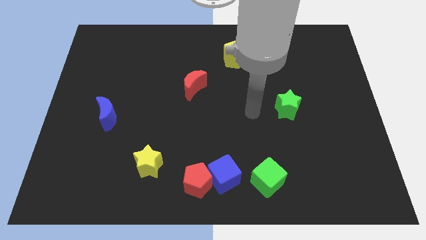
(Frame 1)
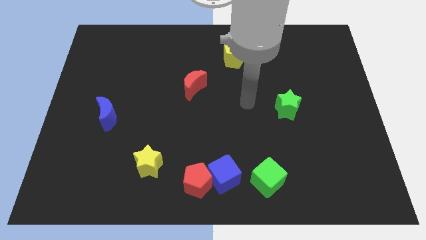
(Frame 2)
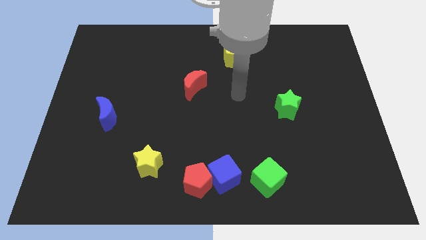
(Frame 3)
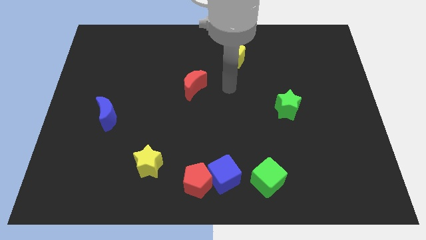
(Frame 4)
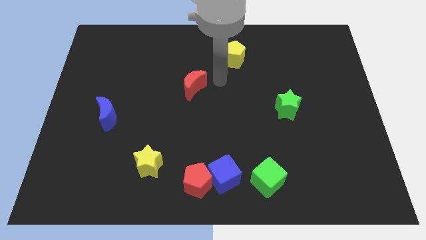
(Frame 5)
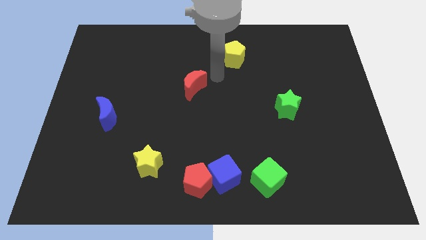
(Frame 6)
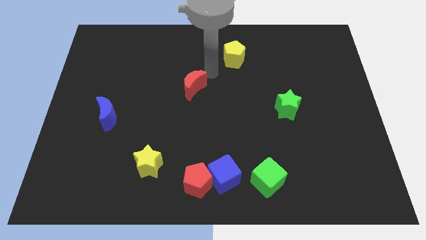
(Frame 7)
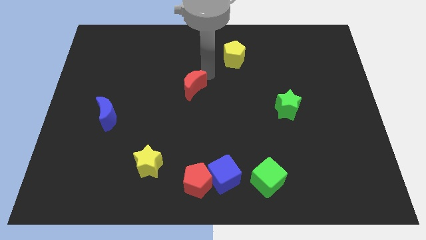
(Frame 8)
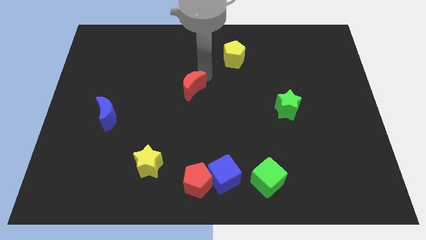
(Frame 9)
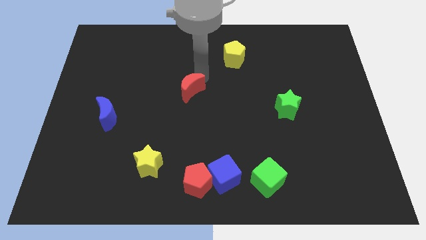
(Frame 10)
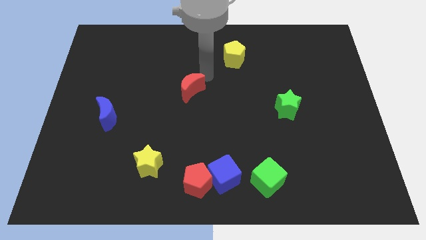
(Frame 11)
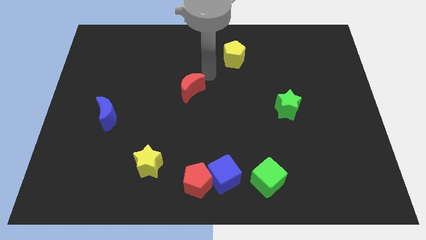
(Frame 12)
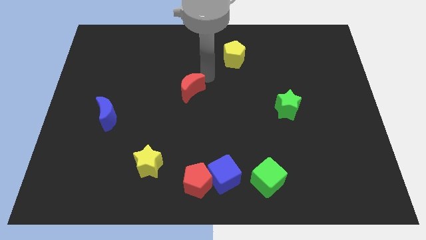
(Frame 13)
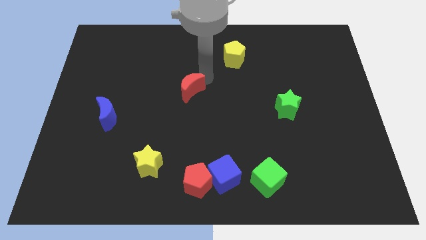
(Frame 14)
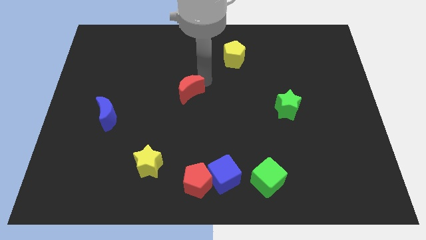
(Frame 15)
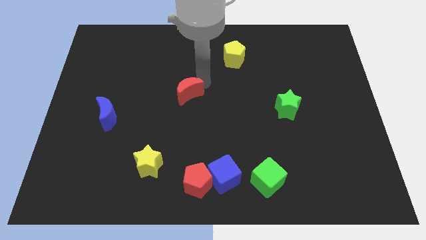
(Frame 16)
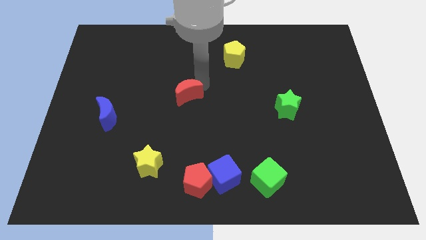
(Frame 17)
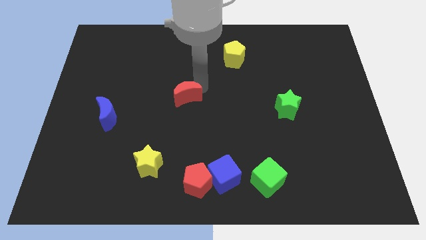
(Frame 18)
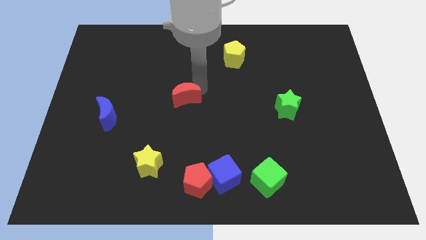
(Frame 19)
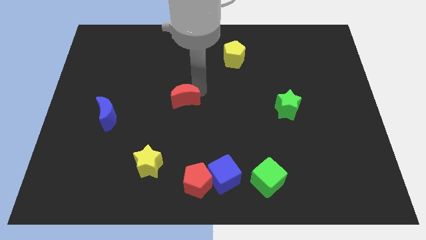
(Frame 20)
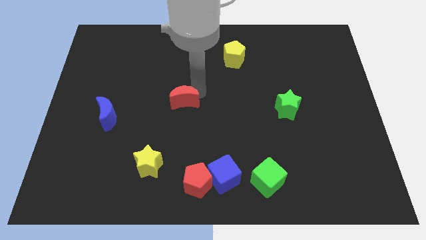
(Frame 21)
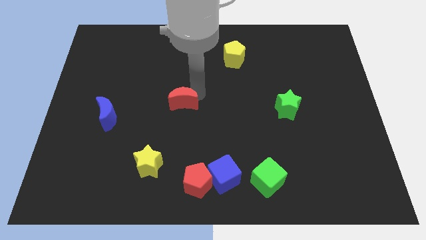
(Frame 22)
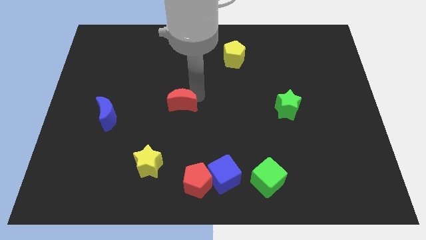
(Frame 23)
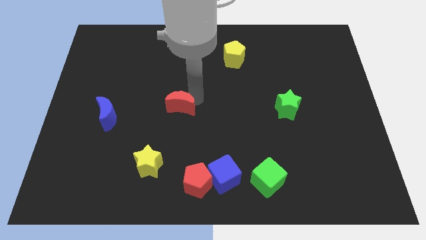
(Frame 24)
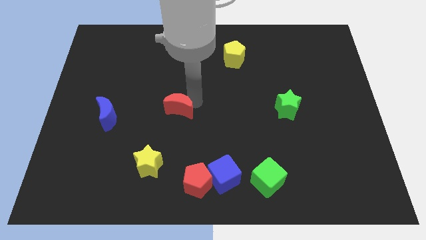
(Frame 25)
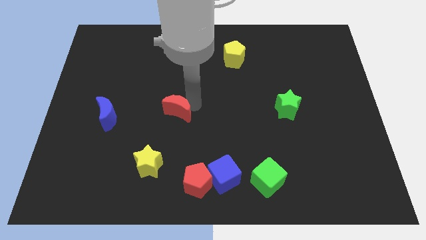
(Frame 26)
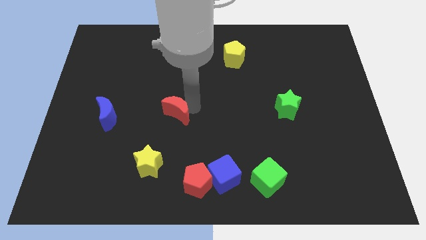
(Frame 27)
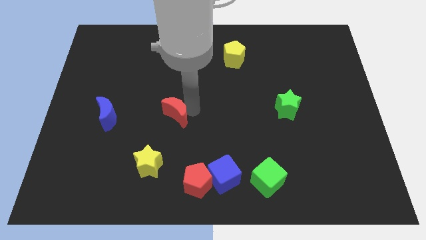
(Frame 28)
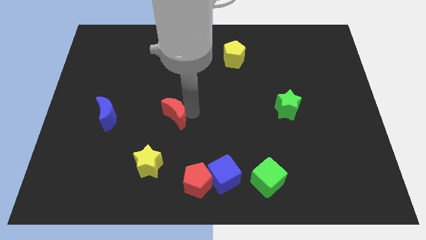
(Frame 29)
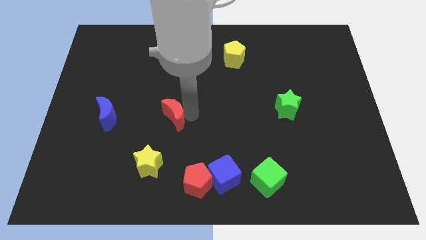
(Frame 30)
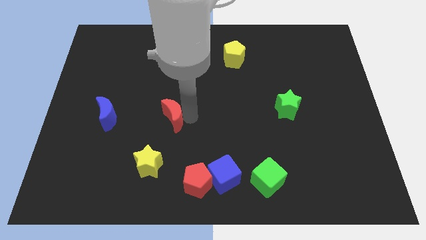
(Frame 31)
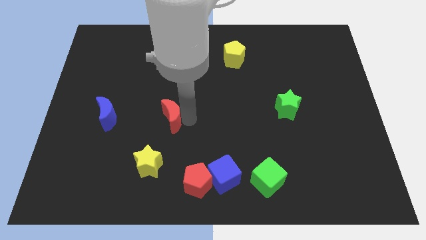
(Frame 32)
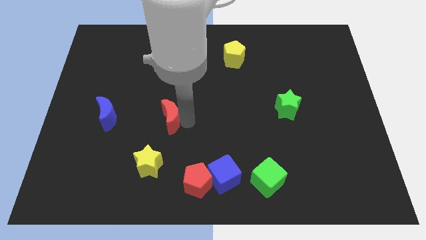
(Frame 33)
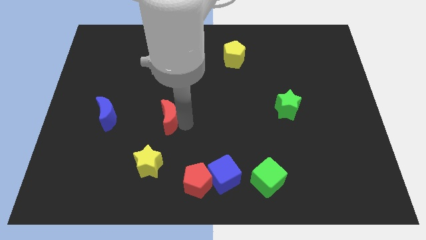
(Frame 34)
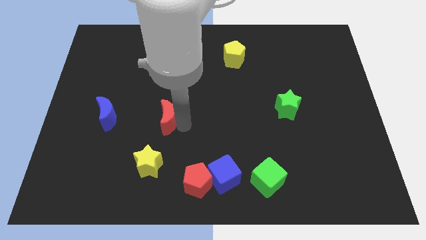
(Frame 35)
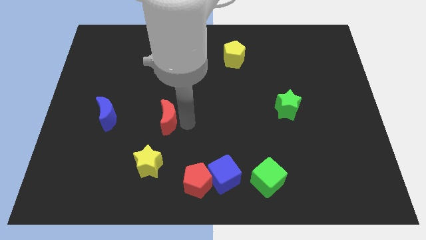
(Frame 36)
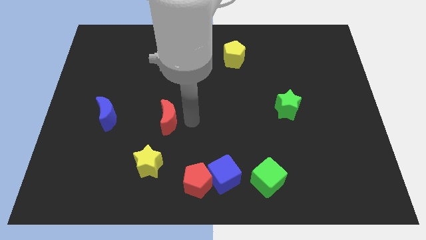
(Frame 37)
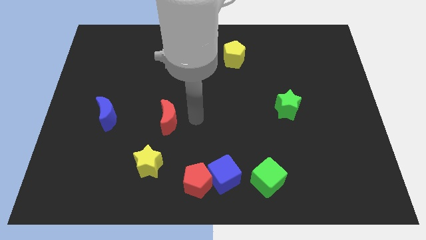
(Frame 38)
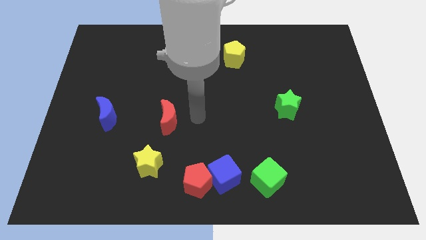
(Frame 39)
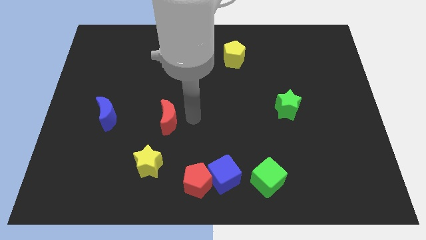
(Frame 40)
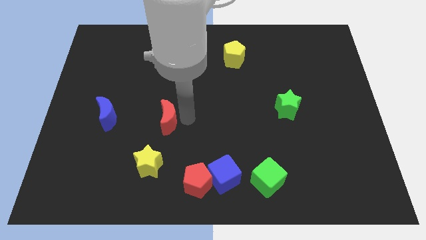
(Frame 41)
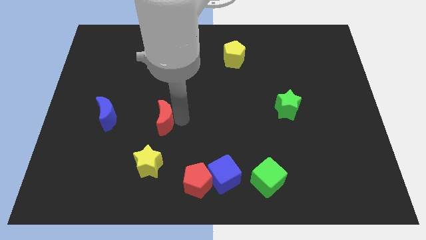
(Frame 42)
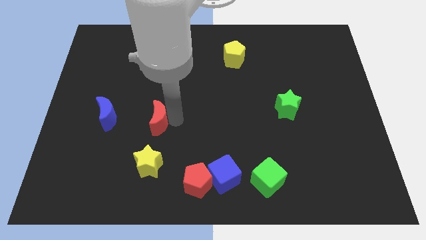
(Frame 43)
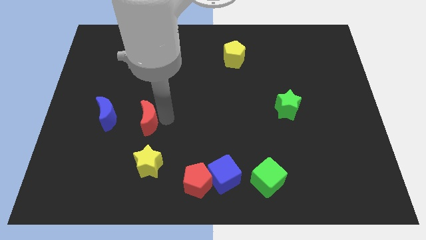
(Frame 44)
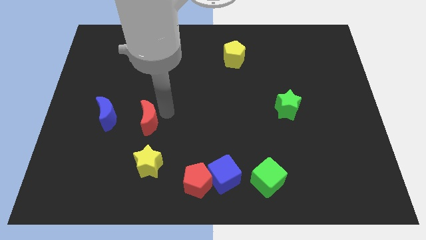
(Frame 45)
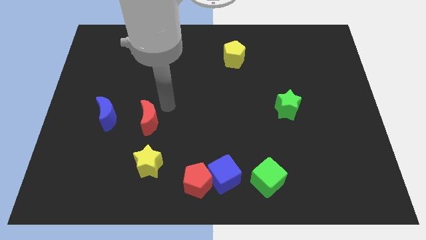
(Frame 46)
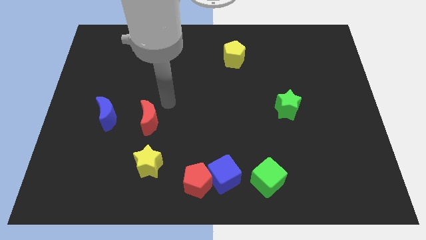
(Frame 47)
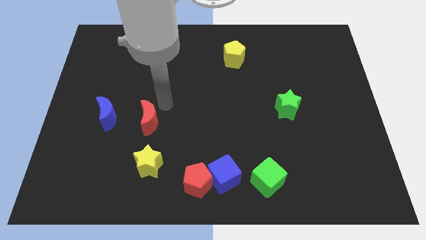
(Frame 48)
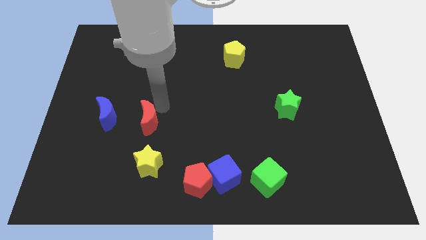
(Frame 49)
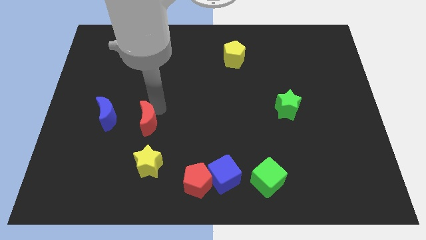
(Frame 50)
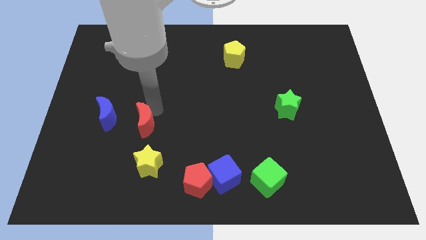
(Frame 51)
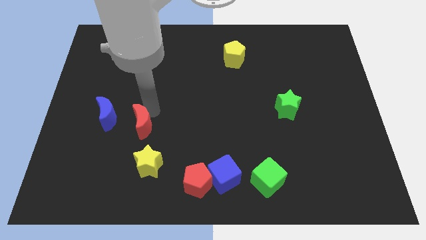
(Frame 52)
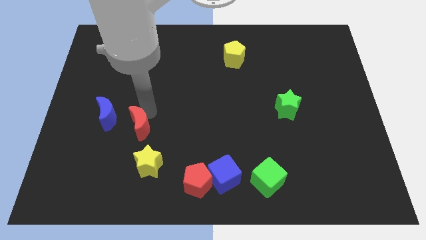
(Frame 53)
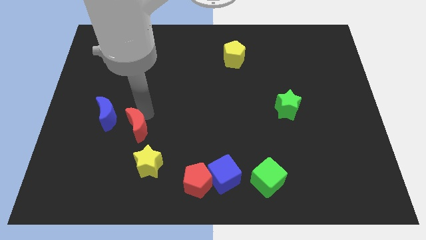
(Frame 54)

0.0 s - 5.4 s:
push the red moon to the top left side of the yellow star

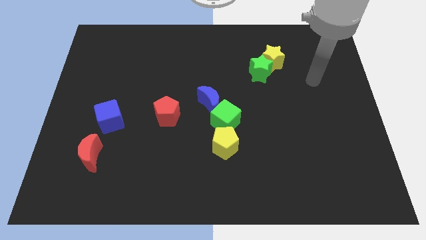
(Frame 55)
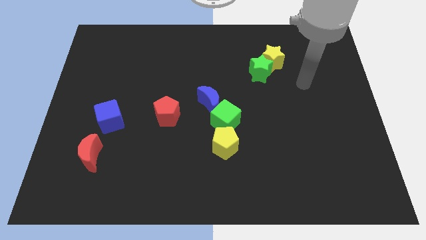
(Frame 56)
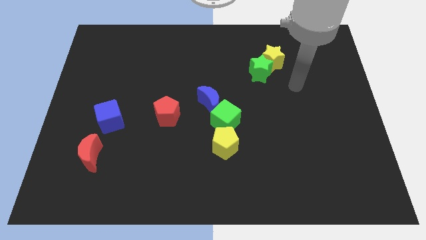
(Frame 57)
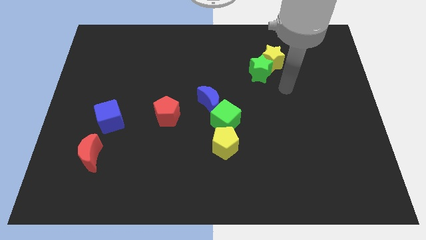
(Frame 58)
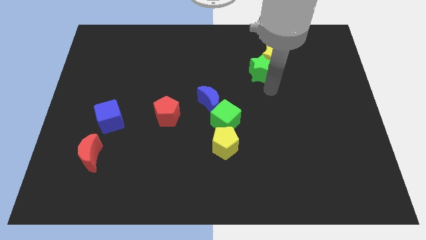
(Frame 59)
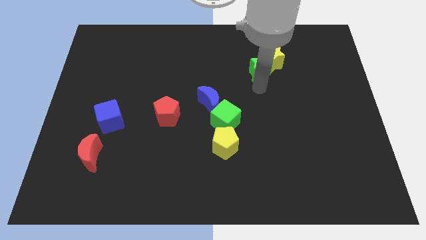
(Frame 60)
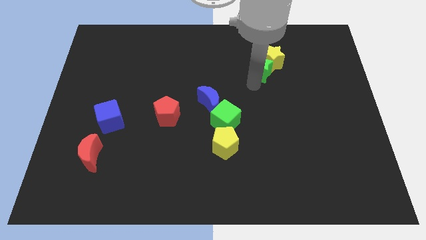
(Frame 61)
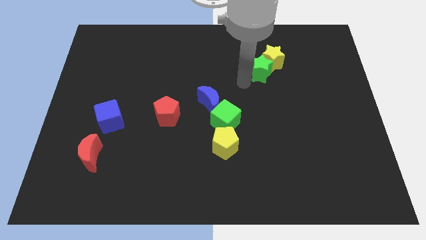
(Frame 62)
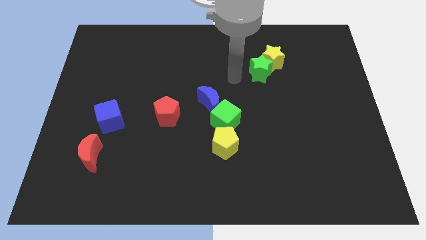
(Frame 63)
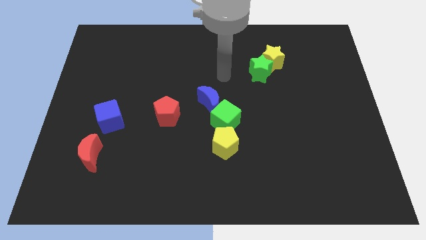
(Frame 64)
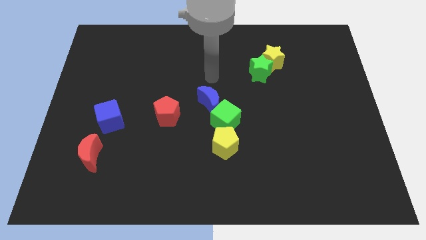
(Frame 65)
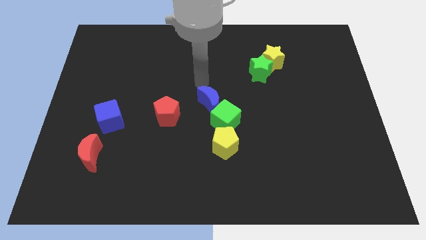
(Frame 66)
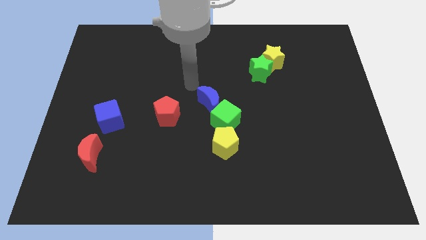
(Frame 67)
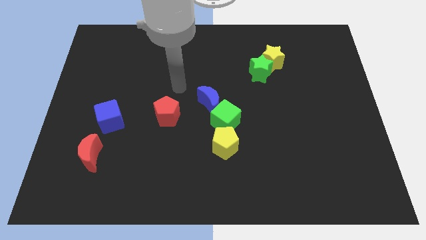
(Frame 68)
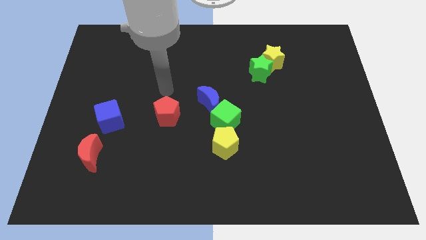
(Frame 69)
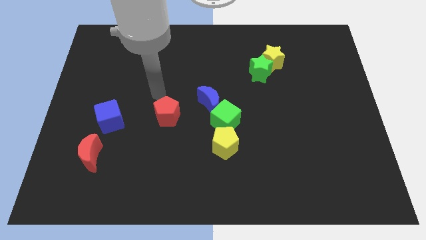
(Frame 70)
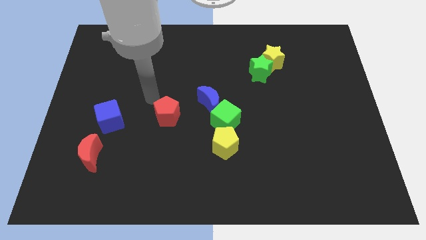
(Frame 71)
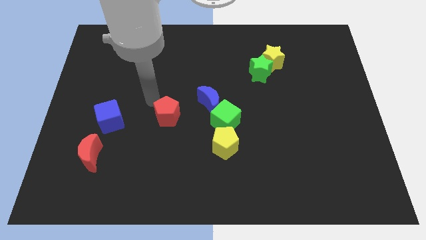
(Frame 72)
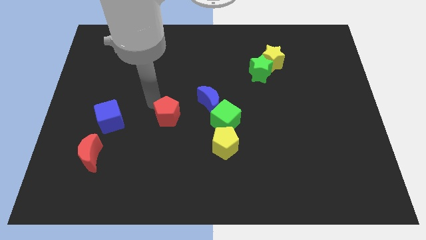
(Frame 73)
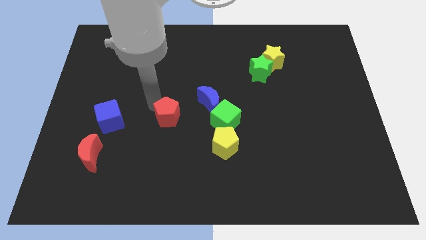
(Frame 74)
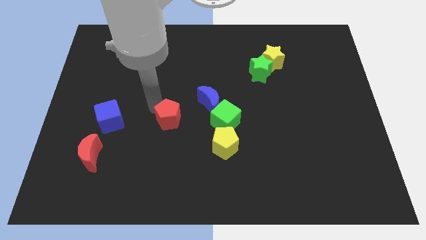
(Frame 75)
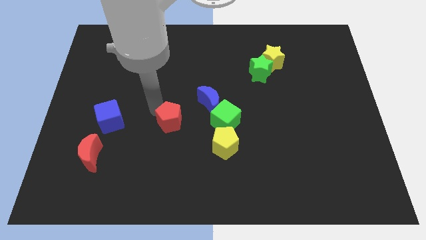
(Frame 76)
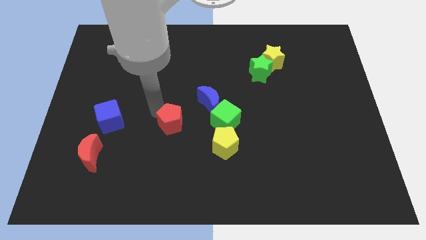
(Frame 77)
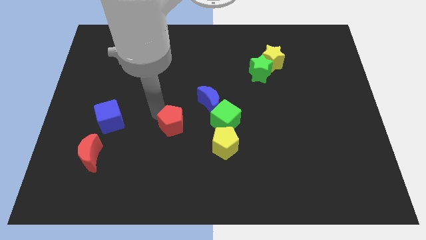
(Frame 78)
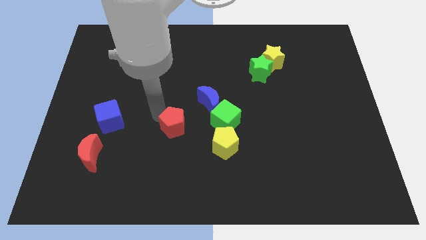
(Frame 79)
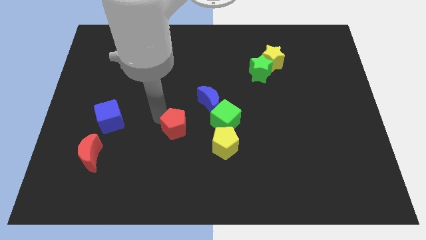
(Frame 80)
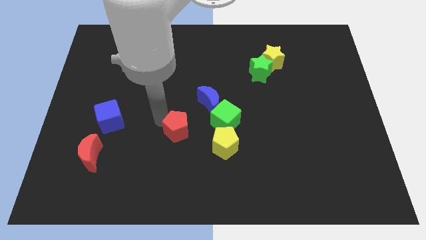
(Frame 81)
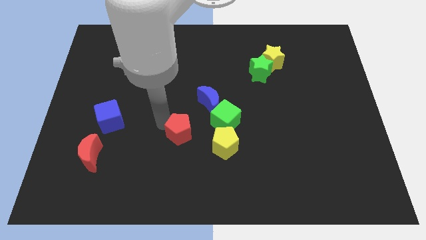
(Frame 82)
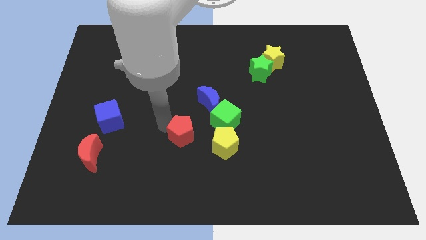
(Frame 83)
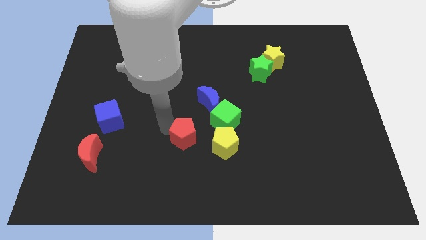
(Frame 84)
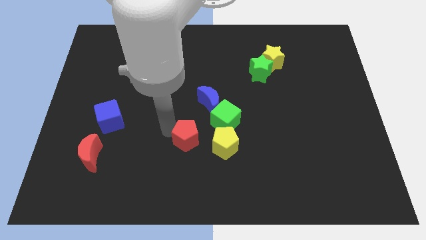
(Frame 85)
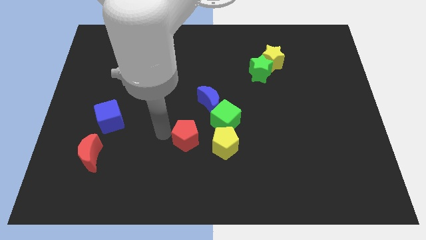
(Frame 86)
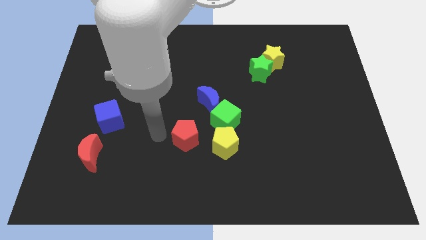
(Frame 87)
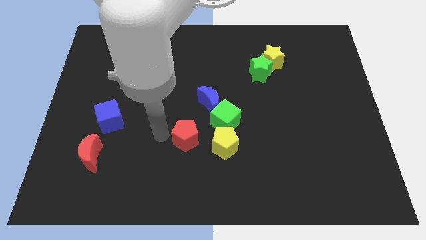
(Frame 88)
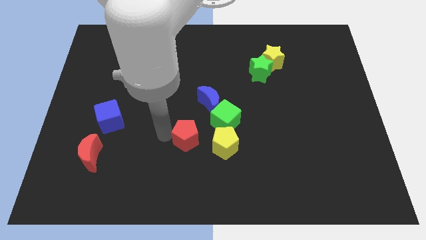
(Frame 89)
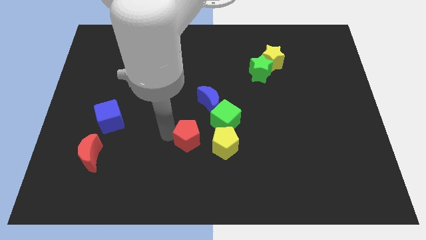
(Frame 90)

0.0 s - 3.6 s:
push the red pentagon to the bottom side of the blue moon
